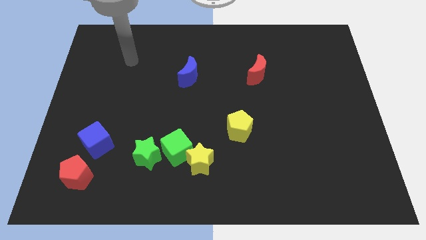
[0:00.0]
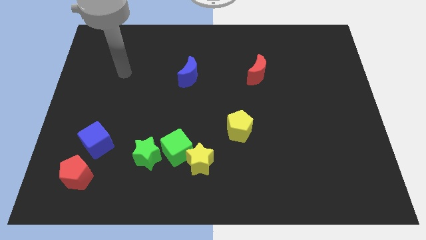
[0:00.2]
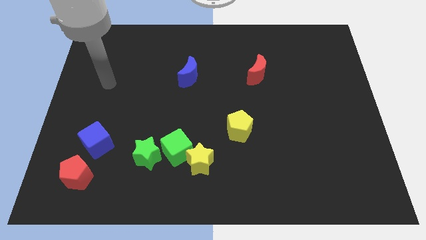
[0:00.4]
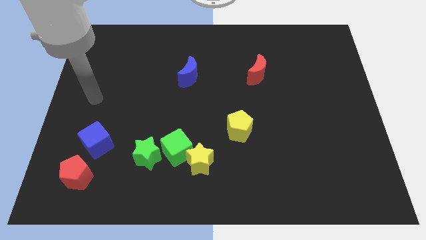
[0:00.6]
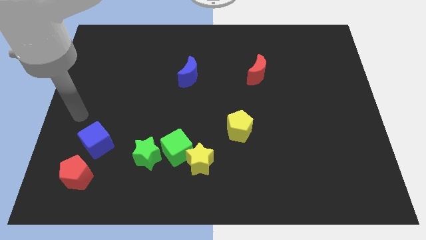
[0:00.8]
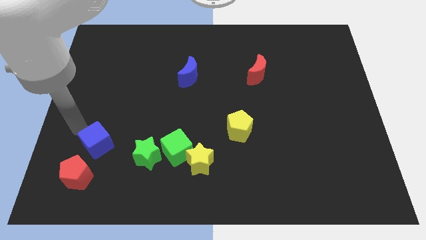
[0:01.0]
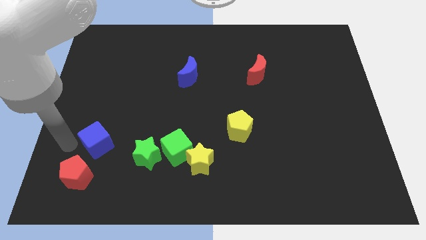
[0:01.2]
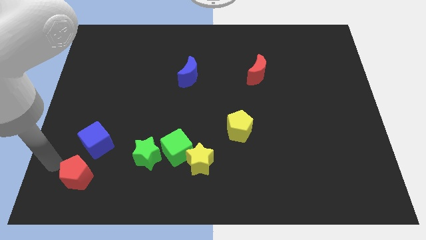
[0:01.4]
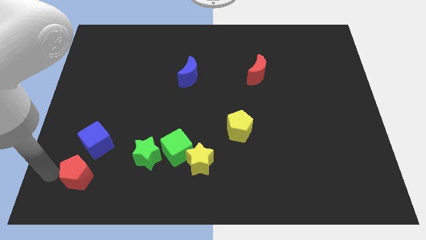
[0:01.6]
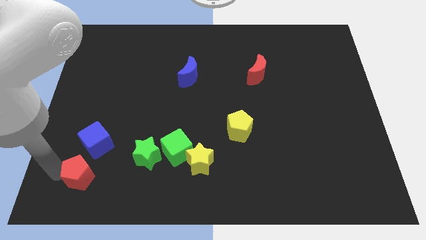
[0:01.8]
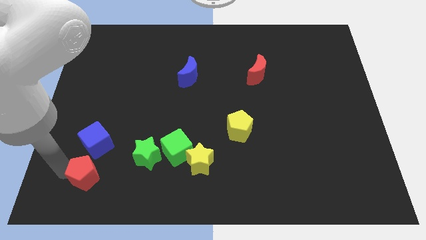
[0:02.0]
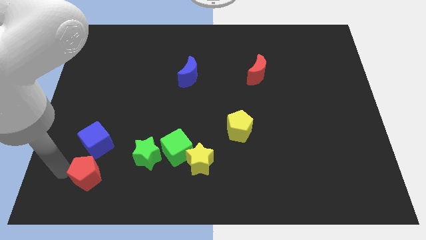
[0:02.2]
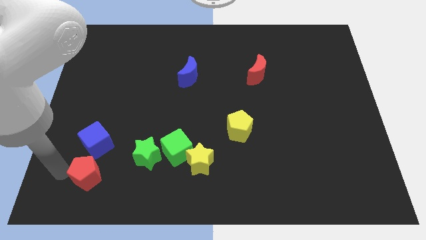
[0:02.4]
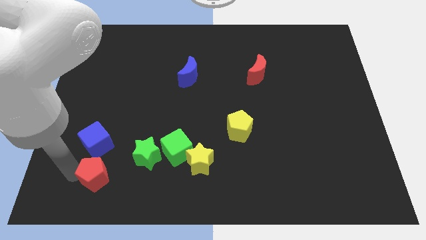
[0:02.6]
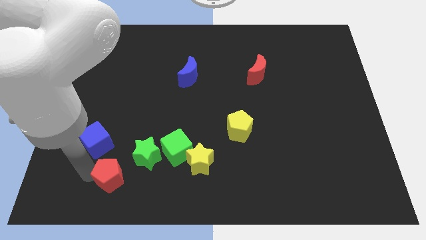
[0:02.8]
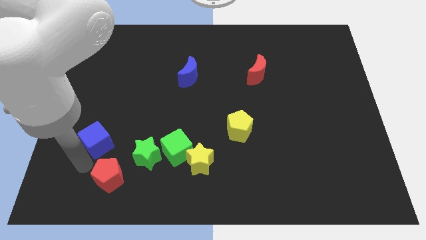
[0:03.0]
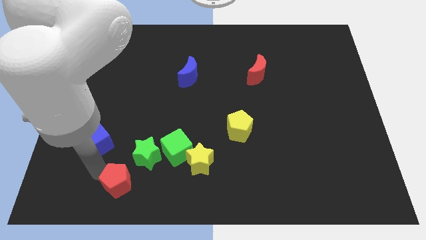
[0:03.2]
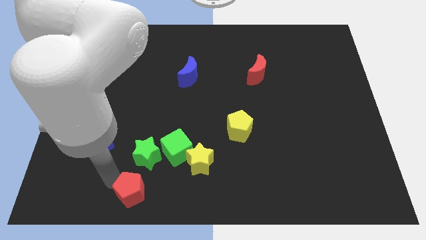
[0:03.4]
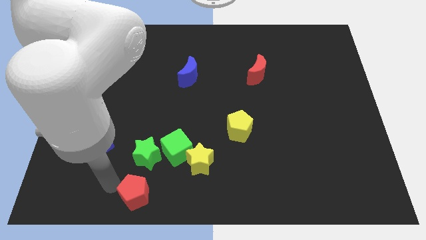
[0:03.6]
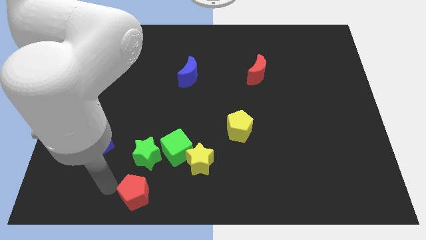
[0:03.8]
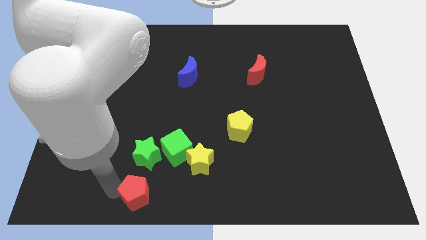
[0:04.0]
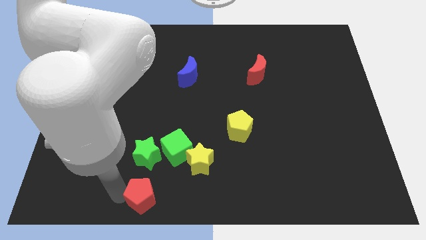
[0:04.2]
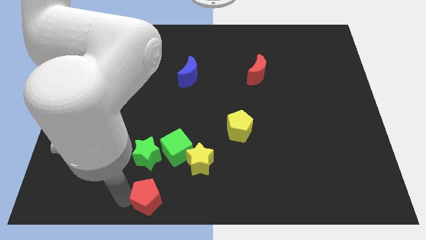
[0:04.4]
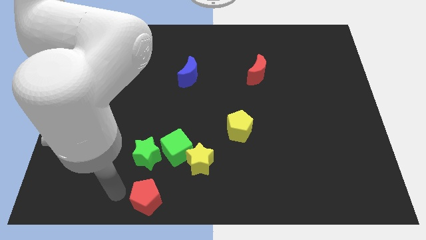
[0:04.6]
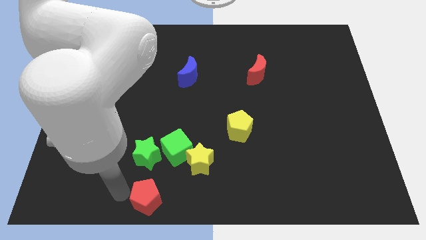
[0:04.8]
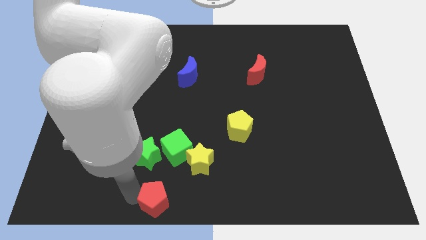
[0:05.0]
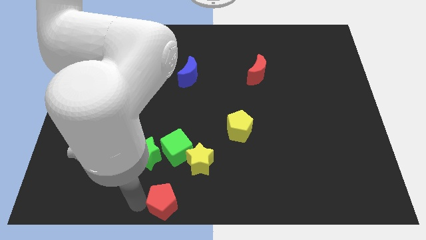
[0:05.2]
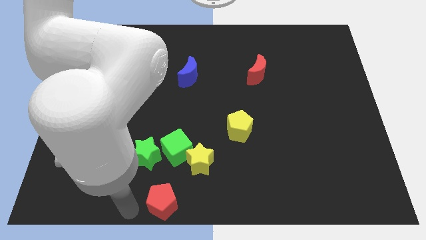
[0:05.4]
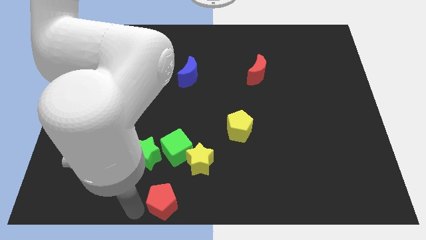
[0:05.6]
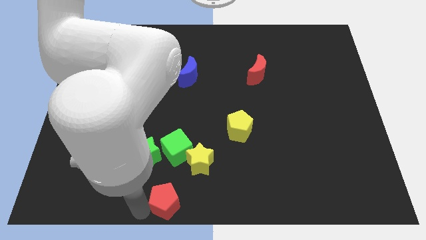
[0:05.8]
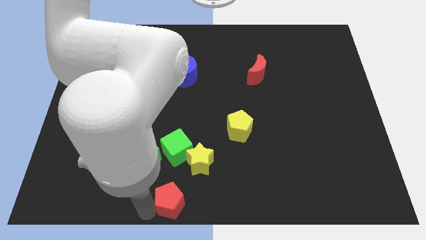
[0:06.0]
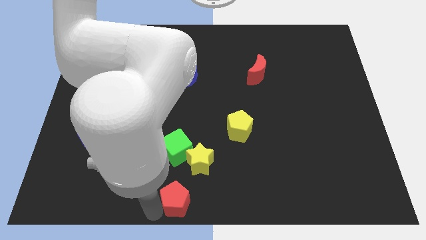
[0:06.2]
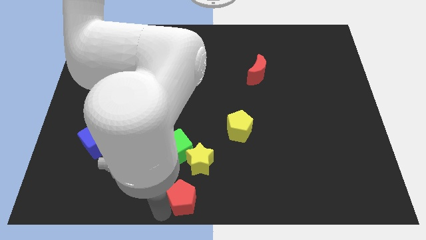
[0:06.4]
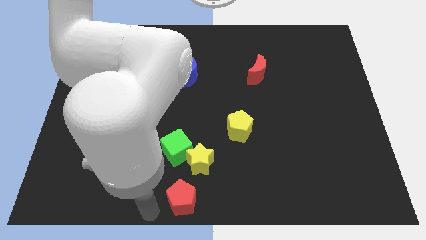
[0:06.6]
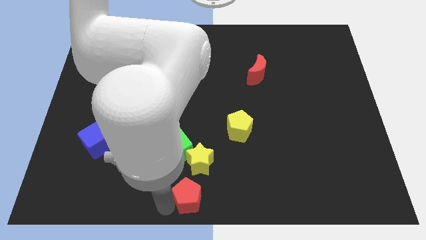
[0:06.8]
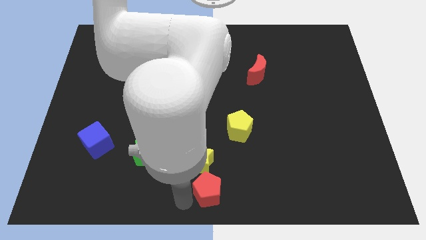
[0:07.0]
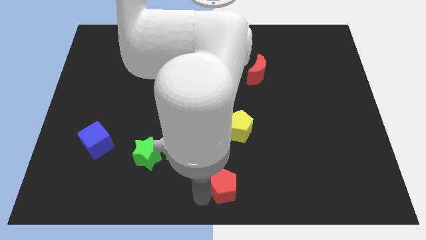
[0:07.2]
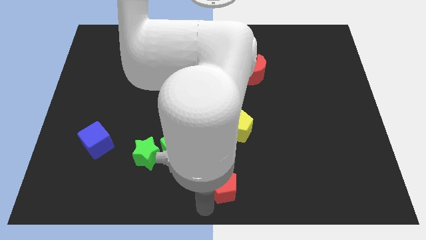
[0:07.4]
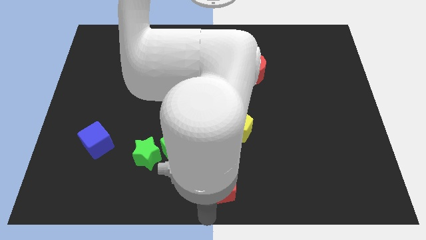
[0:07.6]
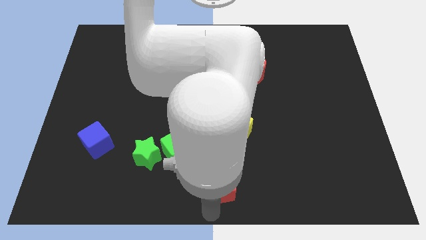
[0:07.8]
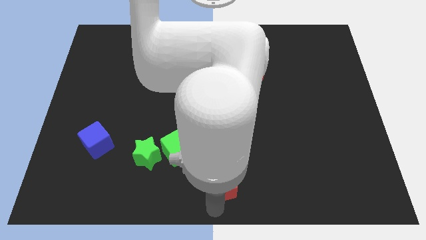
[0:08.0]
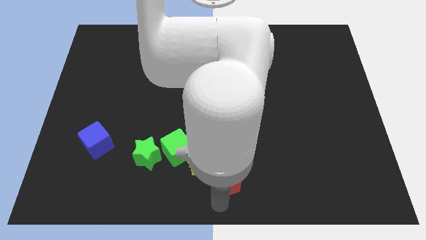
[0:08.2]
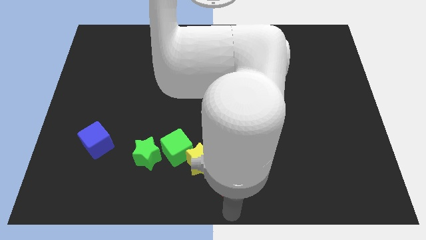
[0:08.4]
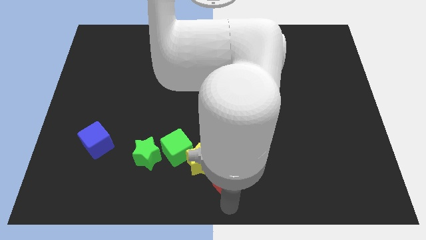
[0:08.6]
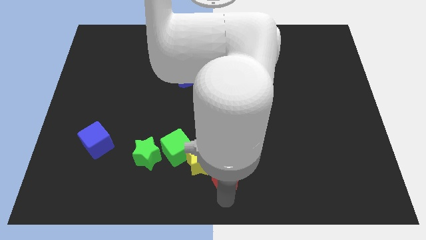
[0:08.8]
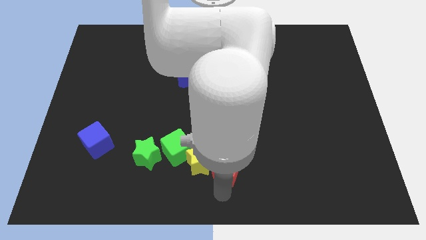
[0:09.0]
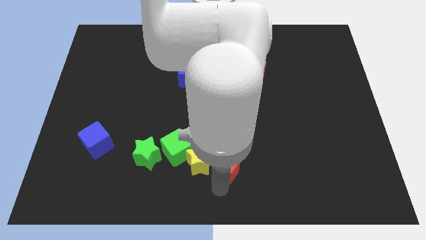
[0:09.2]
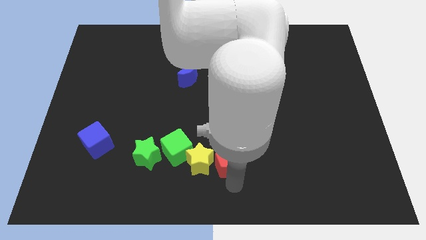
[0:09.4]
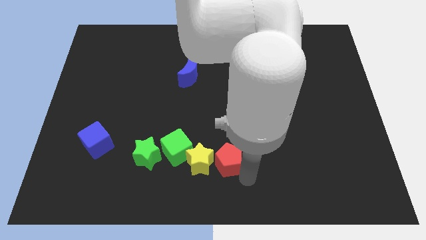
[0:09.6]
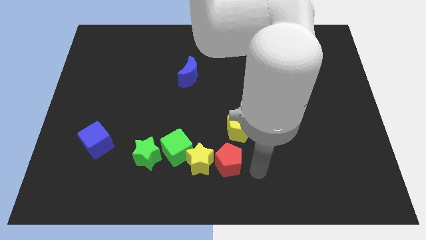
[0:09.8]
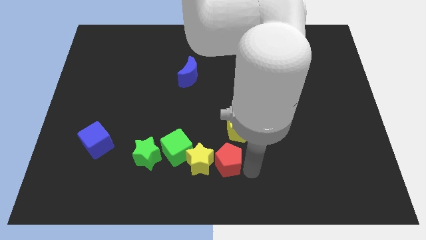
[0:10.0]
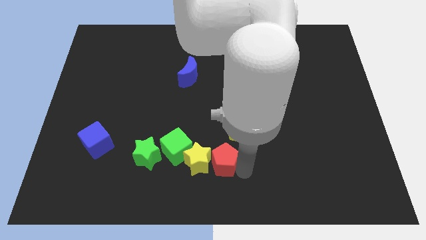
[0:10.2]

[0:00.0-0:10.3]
move the red pentagon to the right side of the green star

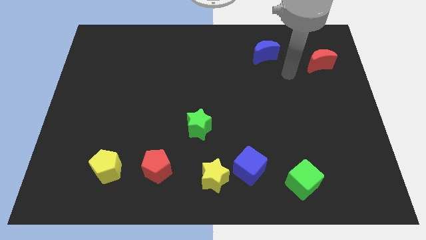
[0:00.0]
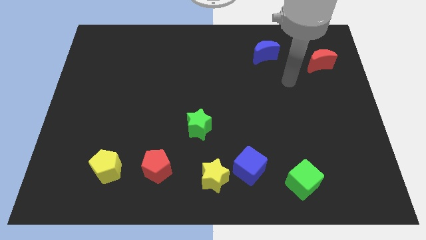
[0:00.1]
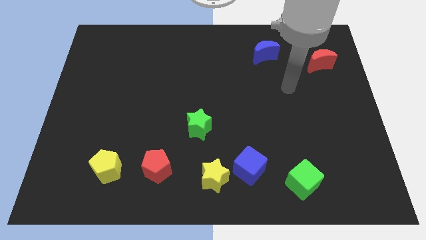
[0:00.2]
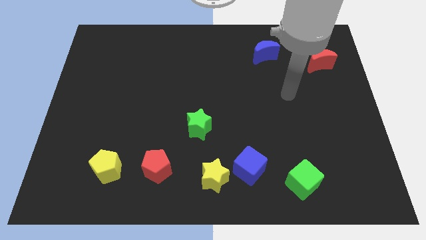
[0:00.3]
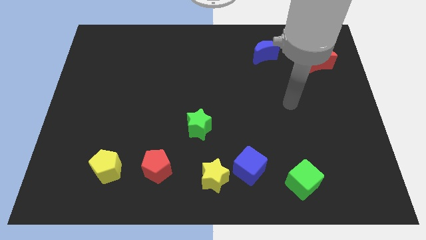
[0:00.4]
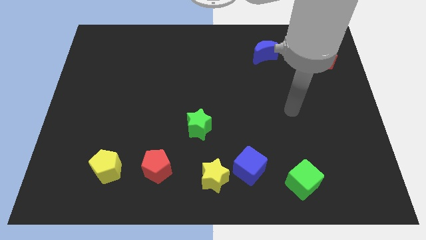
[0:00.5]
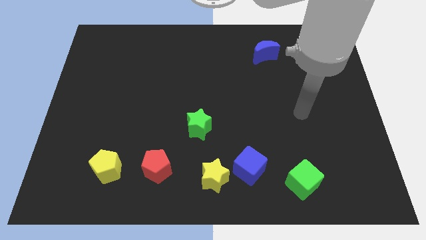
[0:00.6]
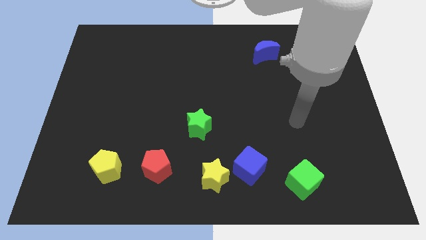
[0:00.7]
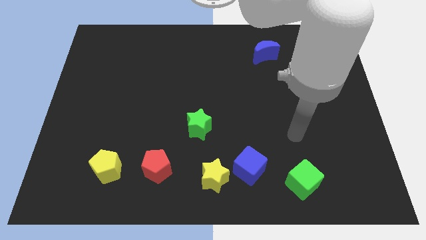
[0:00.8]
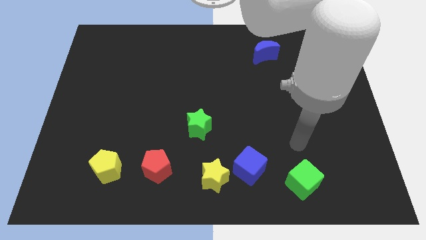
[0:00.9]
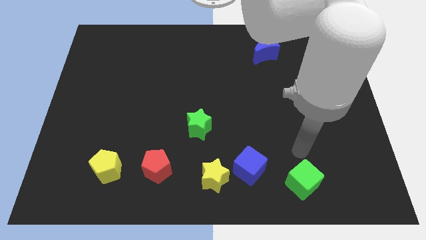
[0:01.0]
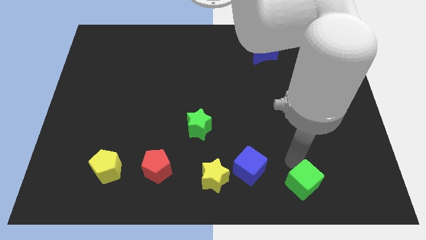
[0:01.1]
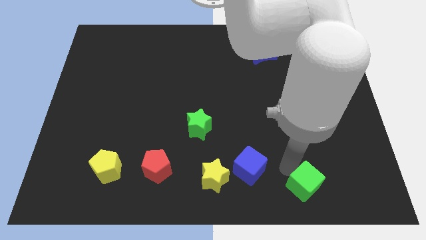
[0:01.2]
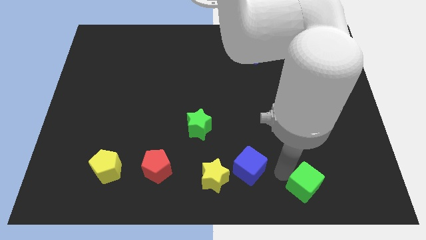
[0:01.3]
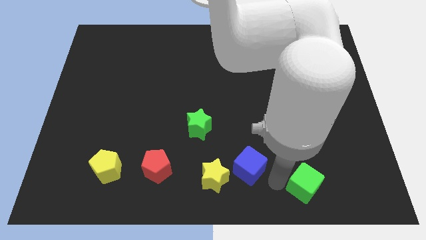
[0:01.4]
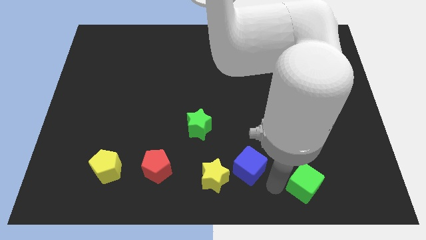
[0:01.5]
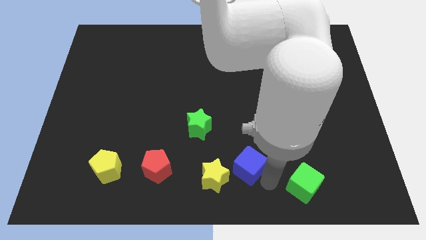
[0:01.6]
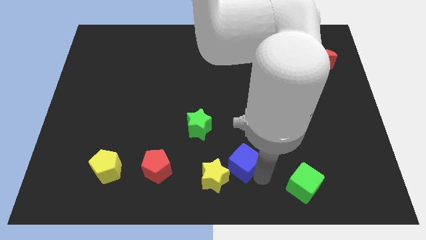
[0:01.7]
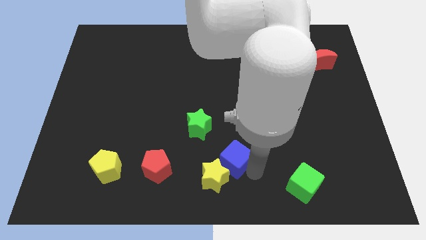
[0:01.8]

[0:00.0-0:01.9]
move the blue cube to the bottom right side of the green star
